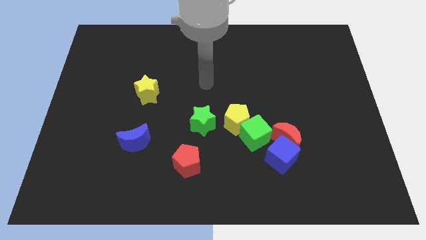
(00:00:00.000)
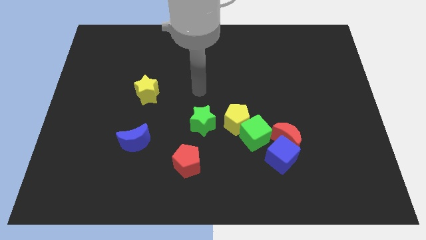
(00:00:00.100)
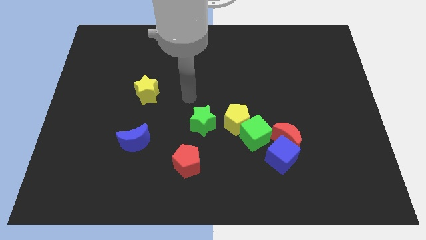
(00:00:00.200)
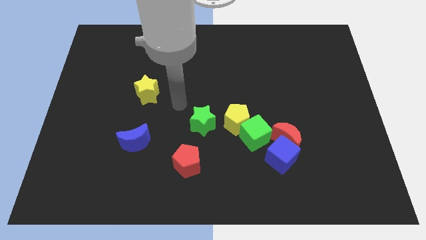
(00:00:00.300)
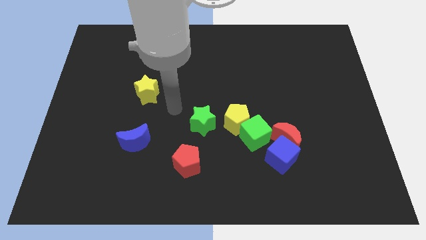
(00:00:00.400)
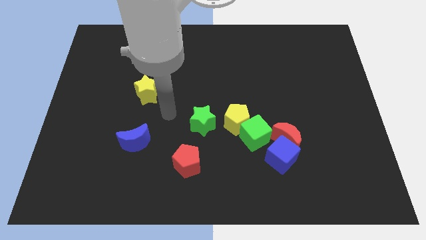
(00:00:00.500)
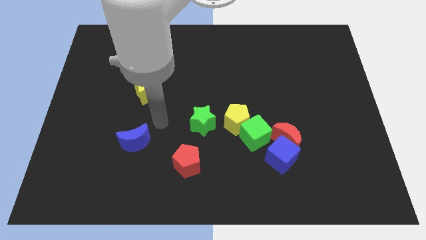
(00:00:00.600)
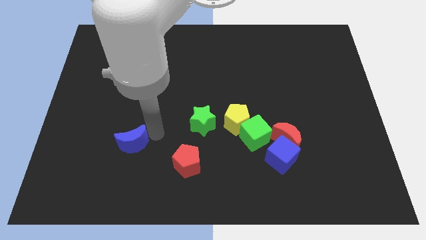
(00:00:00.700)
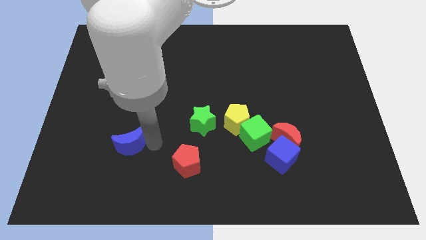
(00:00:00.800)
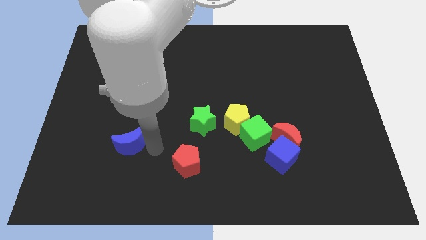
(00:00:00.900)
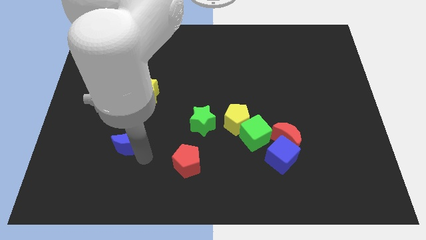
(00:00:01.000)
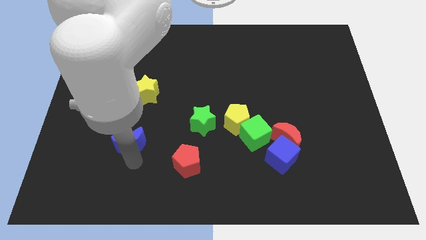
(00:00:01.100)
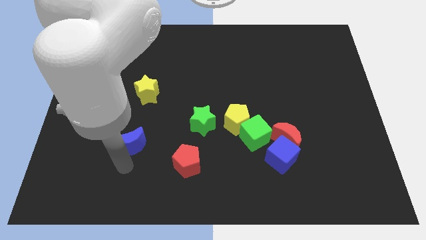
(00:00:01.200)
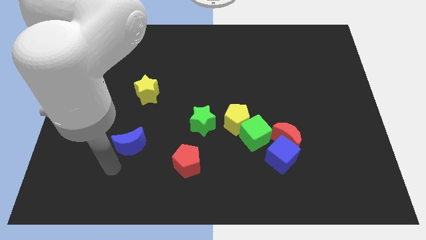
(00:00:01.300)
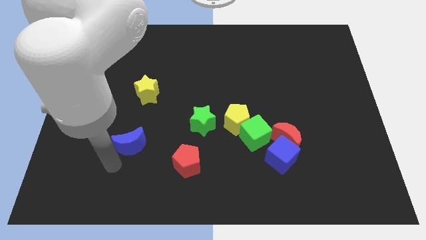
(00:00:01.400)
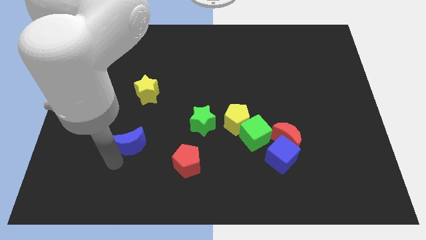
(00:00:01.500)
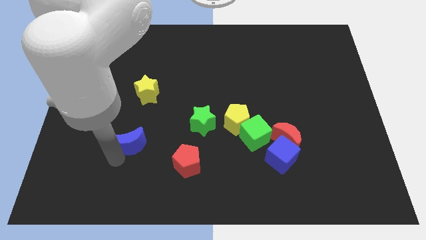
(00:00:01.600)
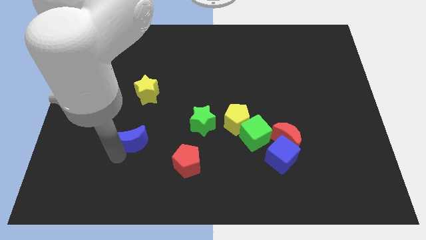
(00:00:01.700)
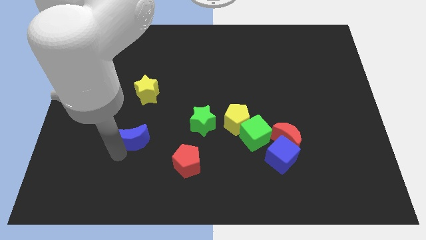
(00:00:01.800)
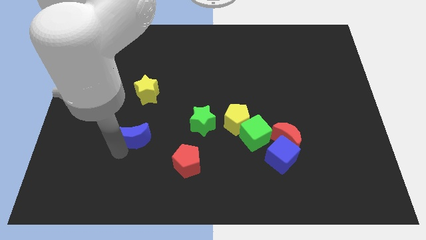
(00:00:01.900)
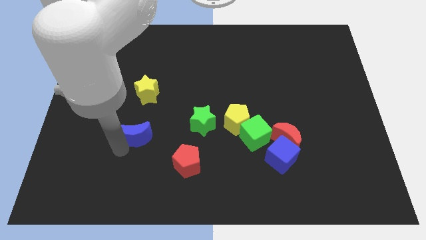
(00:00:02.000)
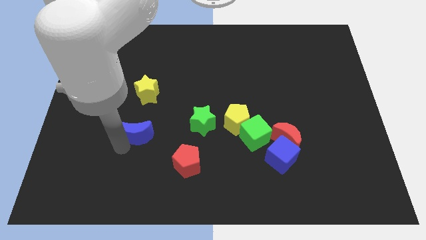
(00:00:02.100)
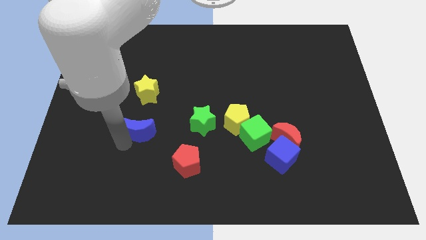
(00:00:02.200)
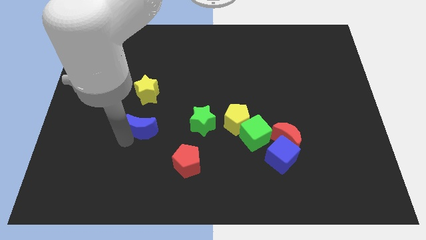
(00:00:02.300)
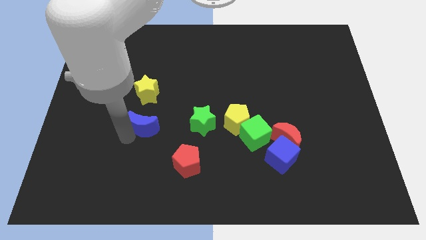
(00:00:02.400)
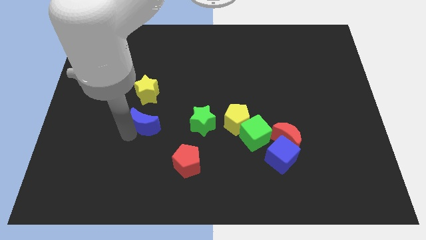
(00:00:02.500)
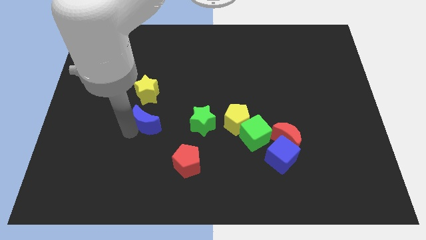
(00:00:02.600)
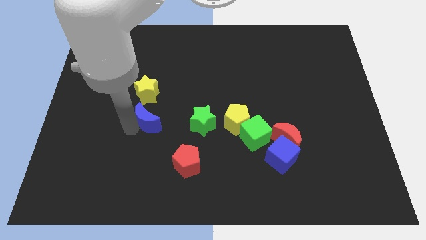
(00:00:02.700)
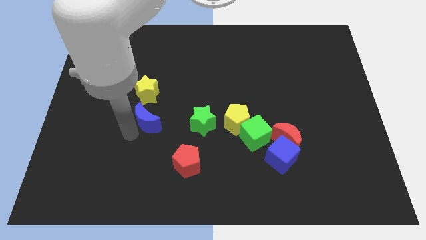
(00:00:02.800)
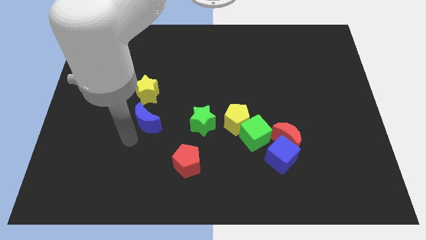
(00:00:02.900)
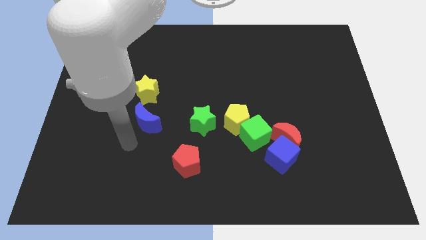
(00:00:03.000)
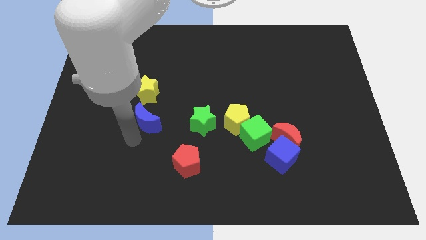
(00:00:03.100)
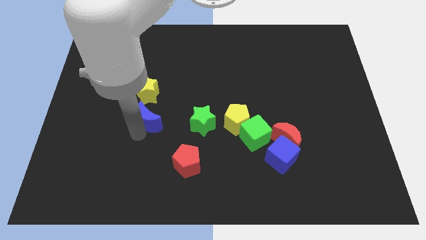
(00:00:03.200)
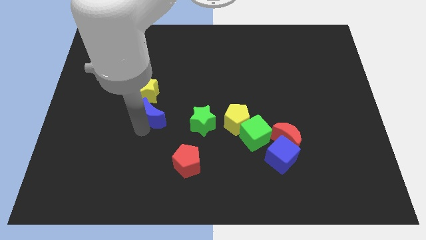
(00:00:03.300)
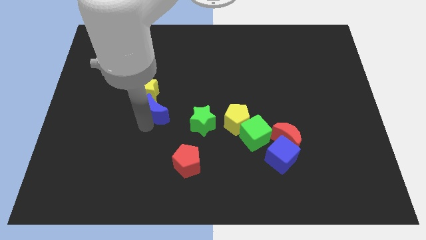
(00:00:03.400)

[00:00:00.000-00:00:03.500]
move the blue moon slightly up

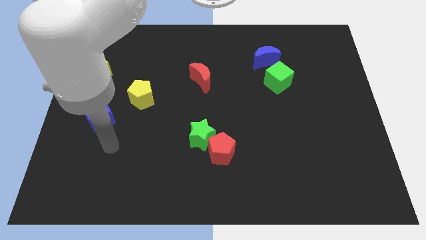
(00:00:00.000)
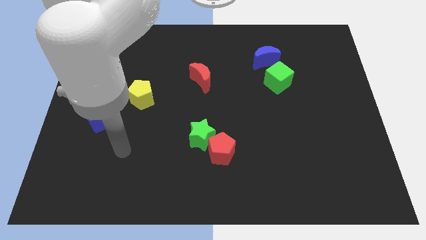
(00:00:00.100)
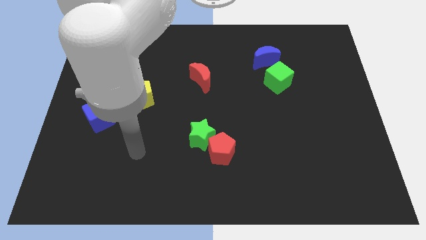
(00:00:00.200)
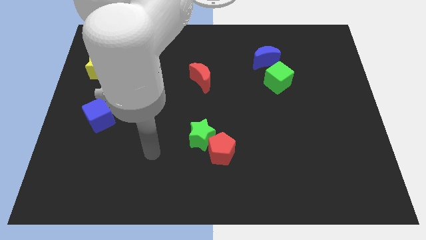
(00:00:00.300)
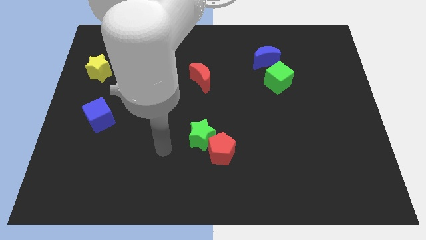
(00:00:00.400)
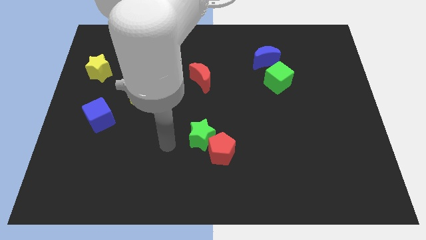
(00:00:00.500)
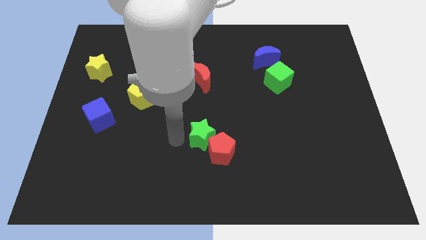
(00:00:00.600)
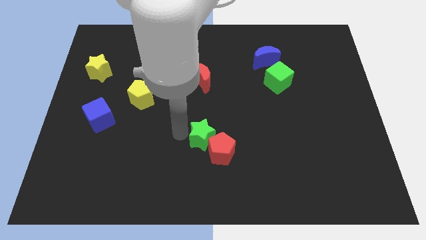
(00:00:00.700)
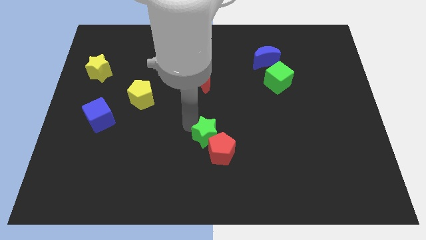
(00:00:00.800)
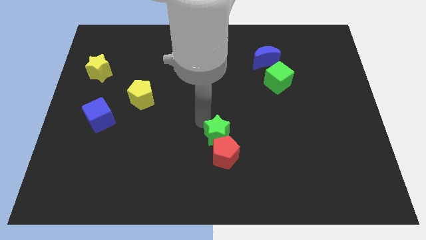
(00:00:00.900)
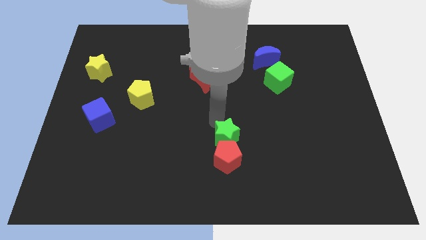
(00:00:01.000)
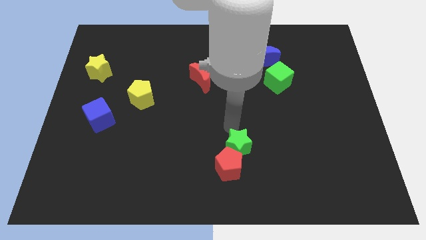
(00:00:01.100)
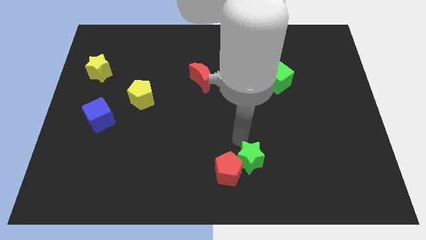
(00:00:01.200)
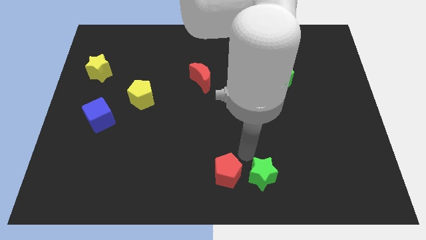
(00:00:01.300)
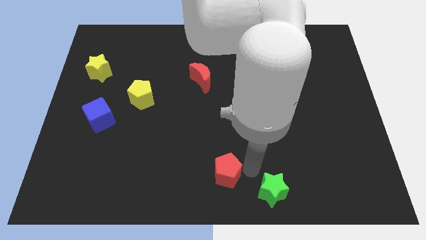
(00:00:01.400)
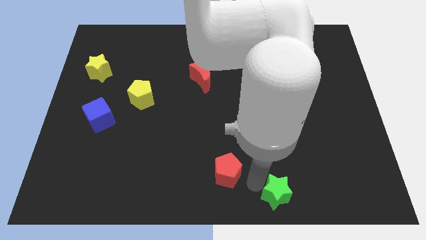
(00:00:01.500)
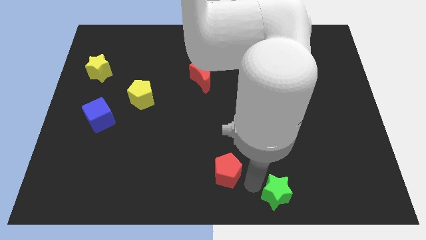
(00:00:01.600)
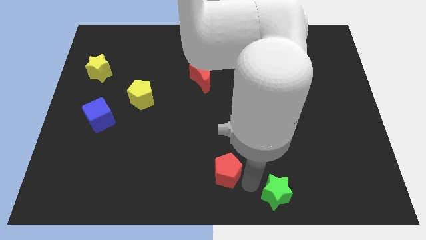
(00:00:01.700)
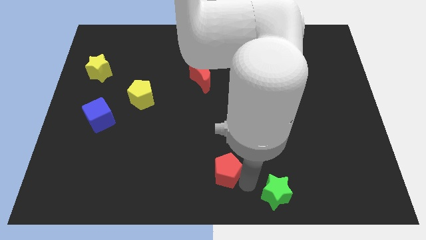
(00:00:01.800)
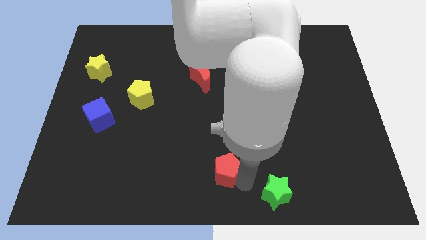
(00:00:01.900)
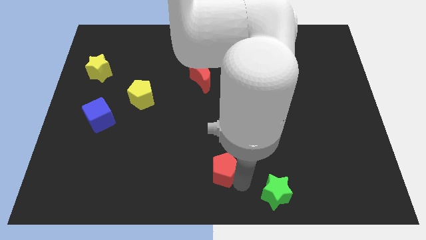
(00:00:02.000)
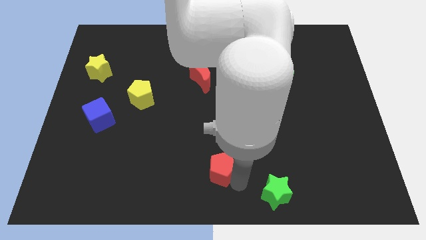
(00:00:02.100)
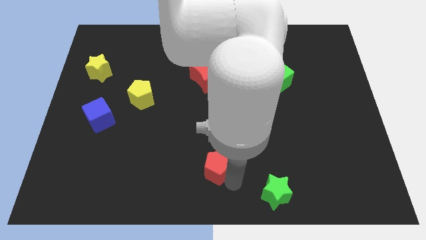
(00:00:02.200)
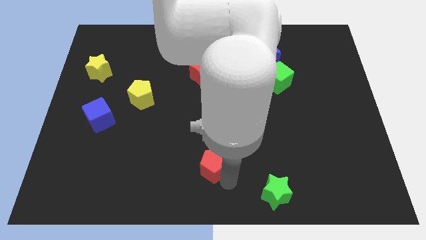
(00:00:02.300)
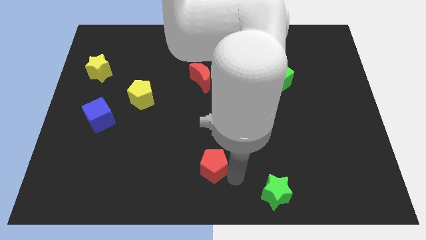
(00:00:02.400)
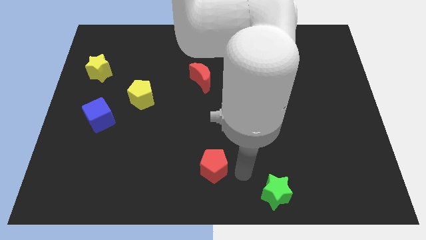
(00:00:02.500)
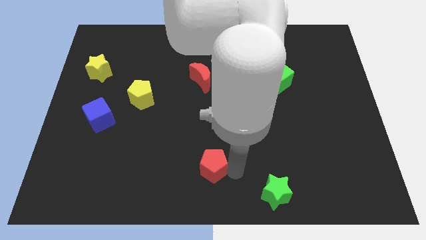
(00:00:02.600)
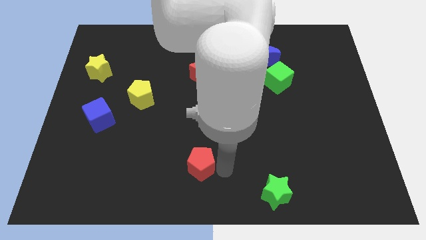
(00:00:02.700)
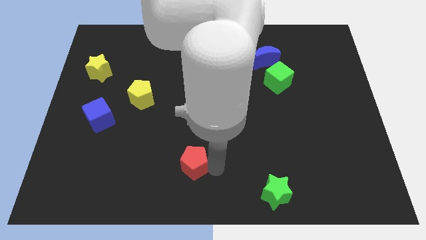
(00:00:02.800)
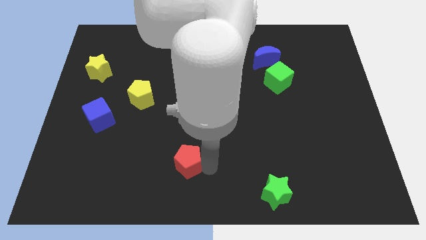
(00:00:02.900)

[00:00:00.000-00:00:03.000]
push the red pentagon a bit left

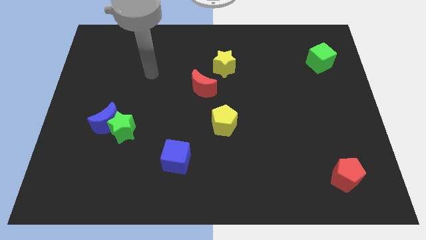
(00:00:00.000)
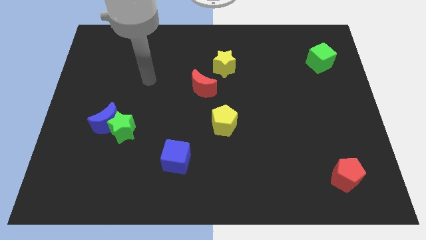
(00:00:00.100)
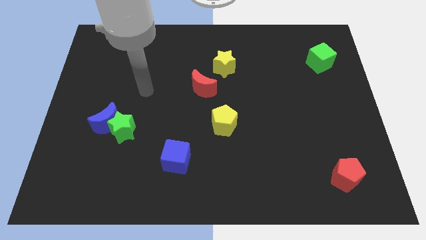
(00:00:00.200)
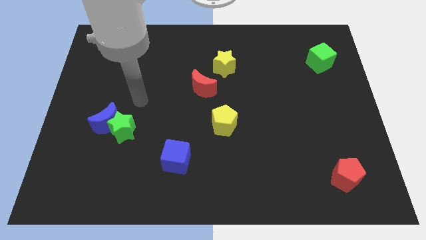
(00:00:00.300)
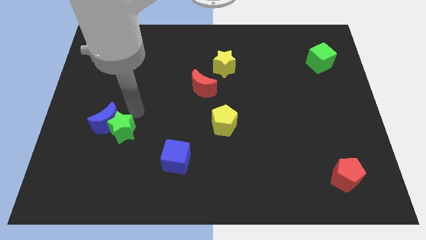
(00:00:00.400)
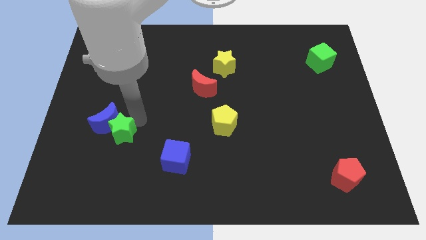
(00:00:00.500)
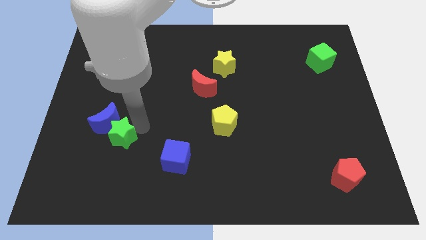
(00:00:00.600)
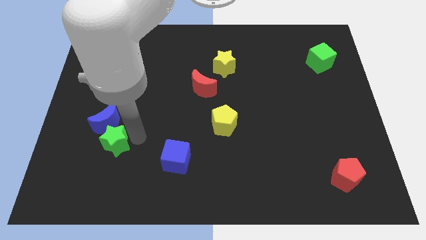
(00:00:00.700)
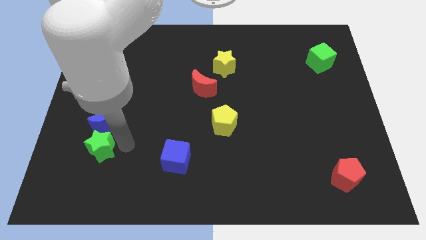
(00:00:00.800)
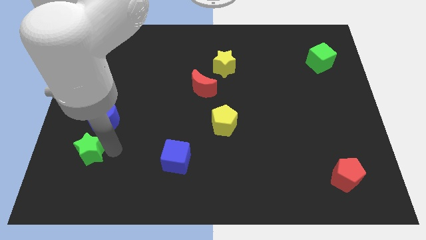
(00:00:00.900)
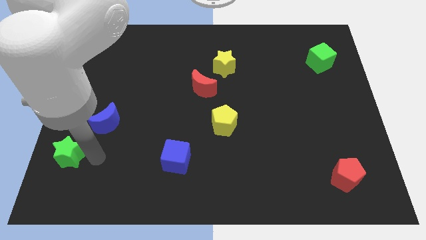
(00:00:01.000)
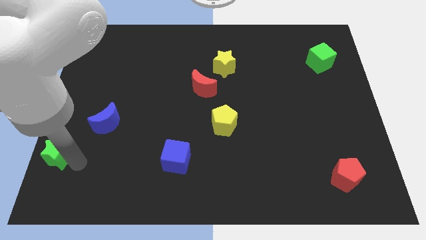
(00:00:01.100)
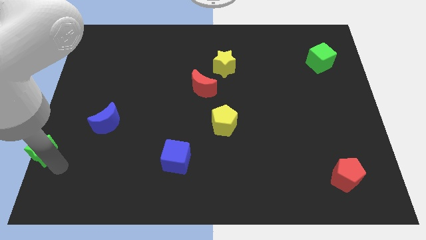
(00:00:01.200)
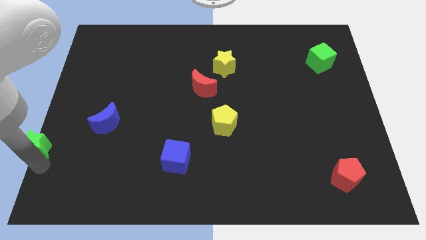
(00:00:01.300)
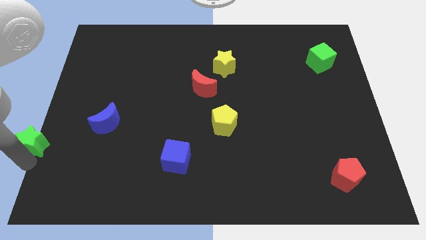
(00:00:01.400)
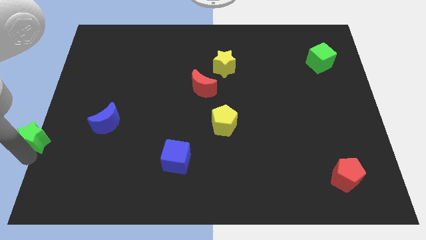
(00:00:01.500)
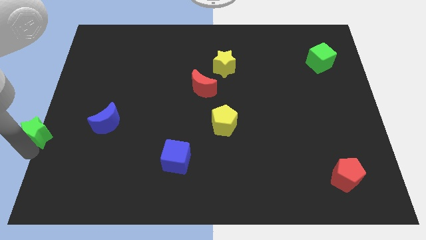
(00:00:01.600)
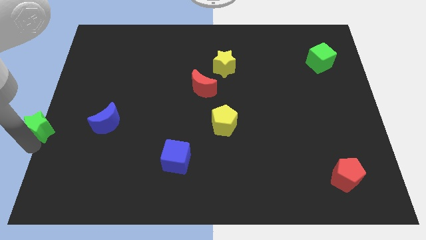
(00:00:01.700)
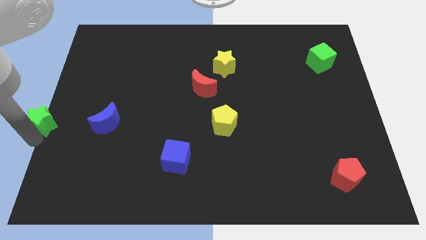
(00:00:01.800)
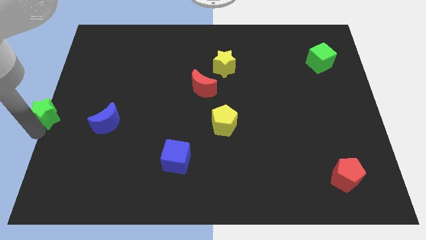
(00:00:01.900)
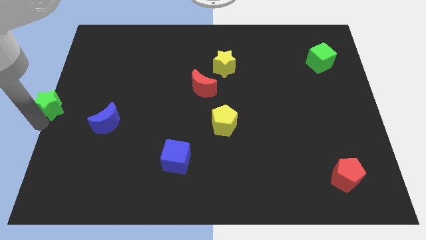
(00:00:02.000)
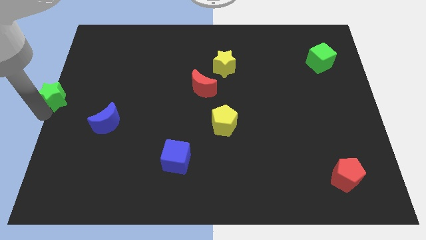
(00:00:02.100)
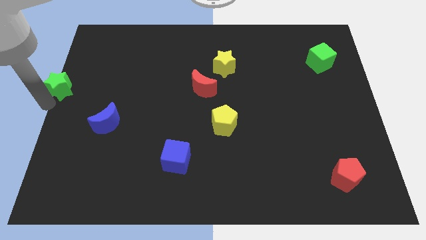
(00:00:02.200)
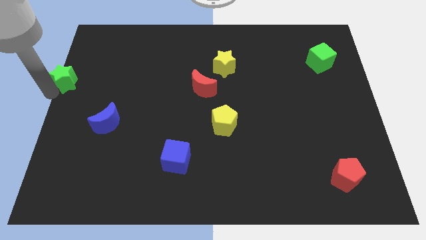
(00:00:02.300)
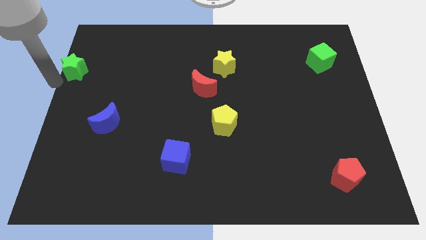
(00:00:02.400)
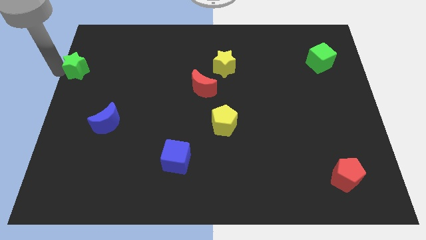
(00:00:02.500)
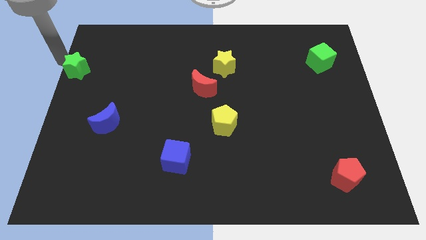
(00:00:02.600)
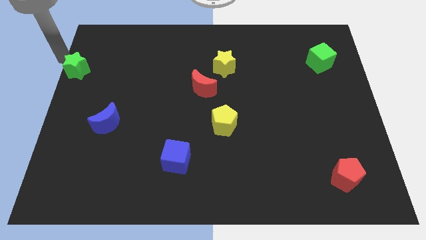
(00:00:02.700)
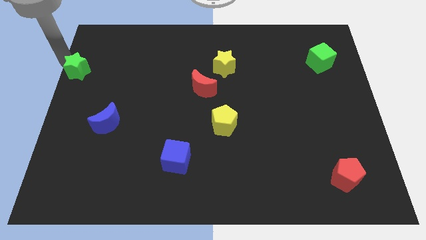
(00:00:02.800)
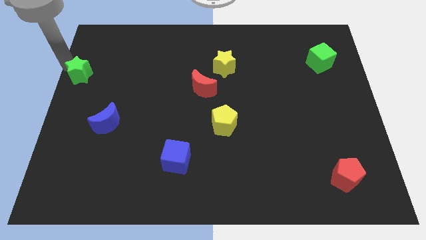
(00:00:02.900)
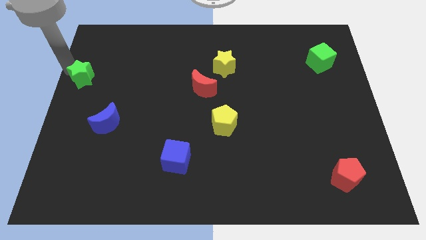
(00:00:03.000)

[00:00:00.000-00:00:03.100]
move the green star up a bit
